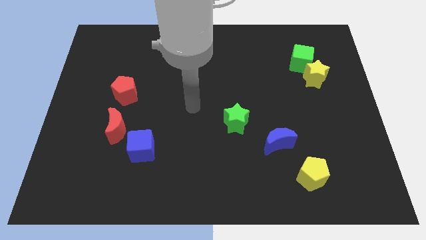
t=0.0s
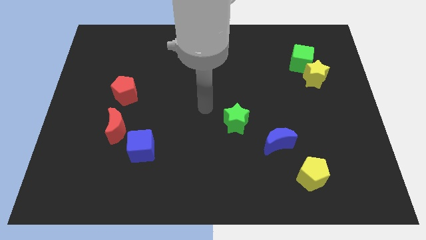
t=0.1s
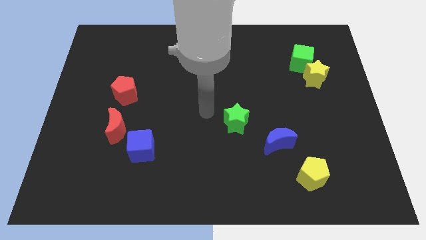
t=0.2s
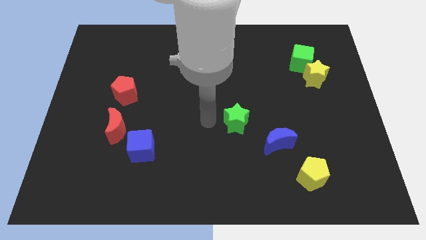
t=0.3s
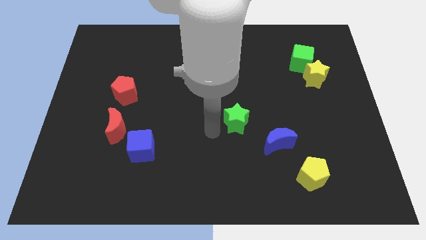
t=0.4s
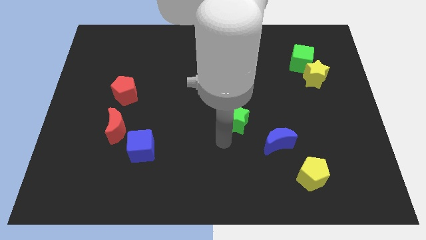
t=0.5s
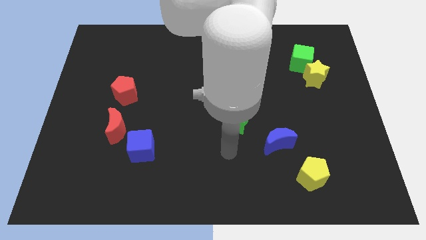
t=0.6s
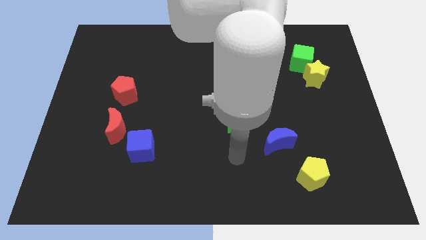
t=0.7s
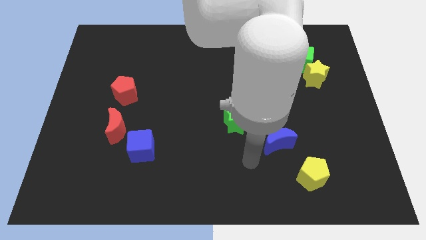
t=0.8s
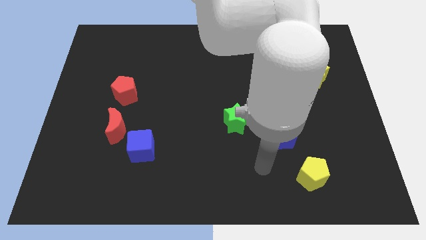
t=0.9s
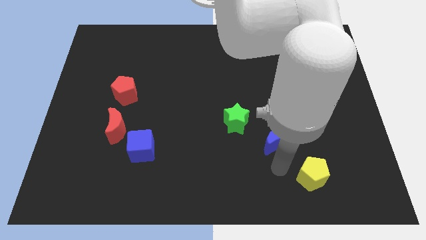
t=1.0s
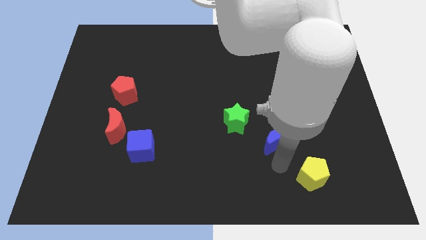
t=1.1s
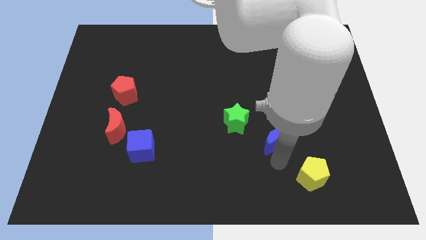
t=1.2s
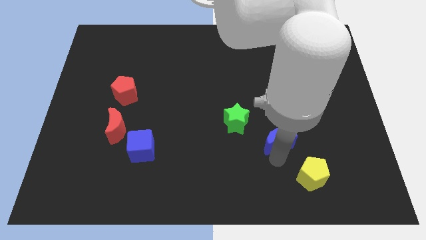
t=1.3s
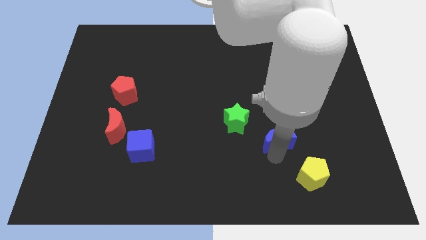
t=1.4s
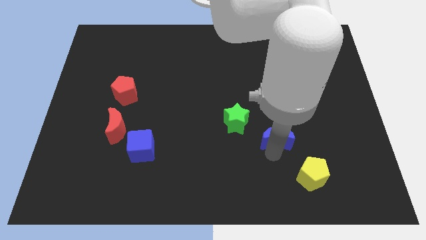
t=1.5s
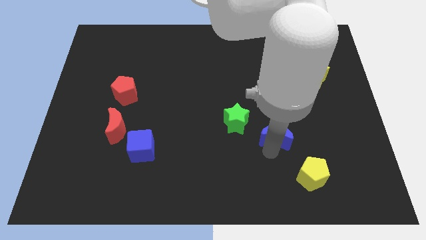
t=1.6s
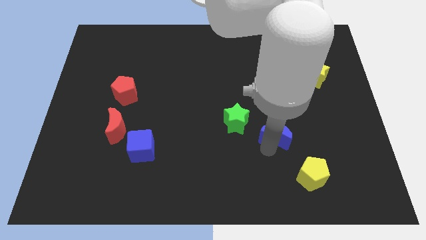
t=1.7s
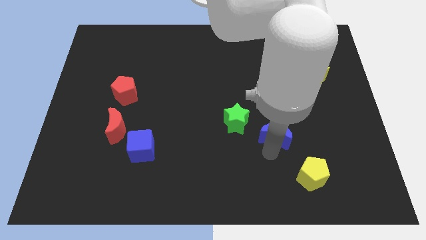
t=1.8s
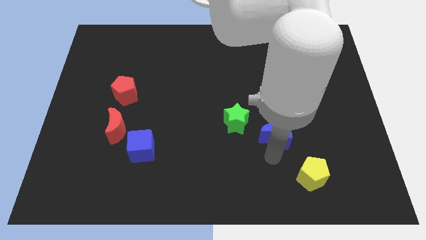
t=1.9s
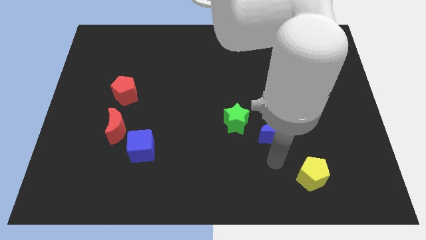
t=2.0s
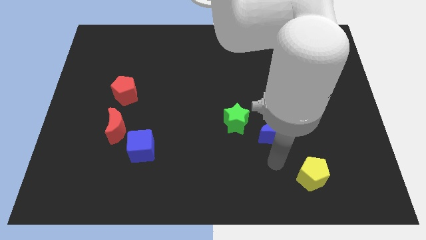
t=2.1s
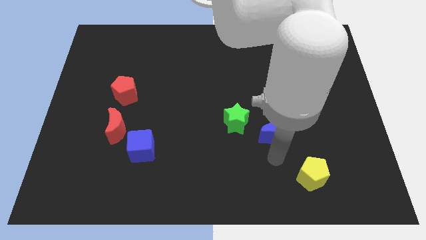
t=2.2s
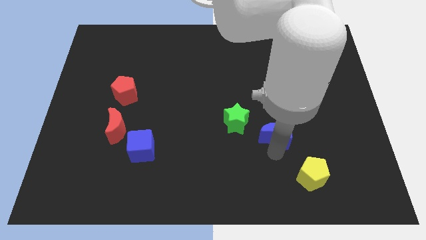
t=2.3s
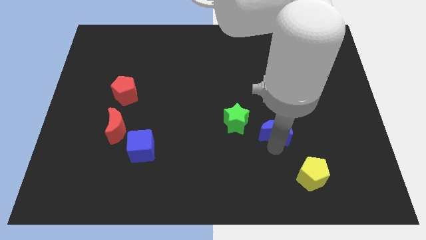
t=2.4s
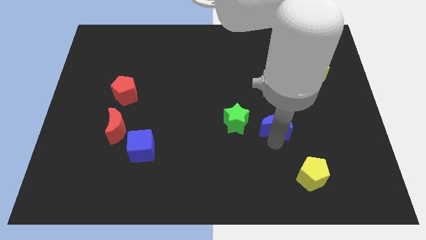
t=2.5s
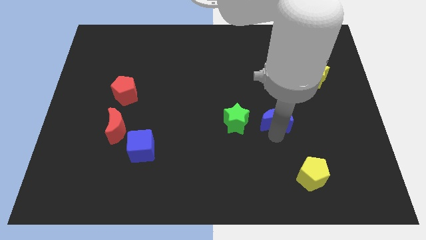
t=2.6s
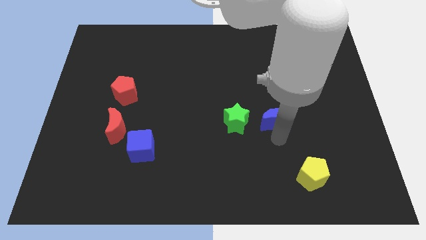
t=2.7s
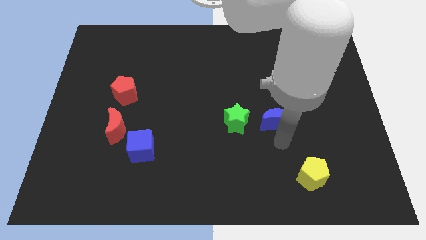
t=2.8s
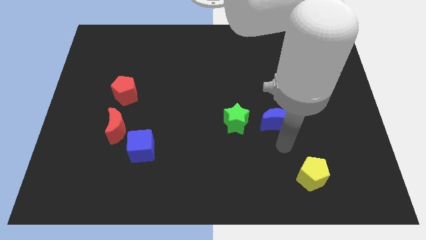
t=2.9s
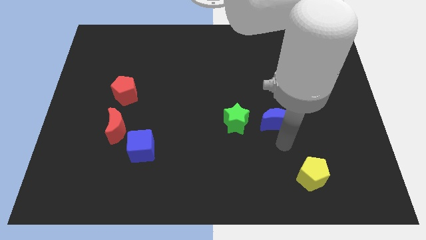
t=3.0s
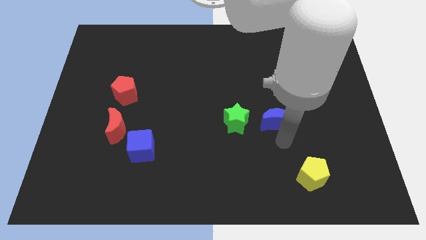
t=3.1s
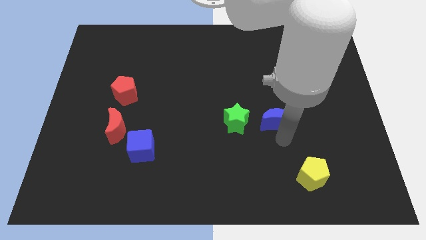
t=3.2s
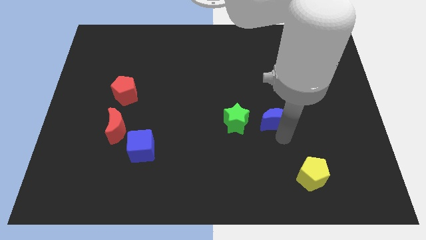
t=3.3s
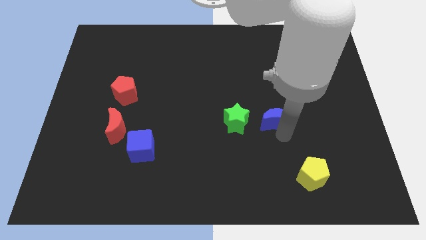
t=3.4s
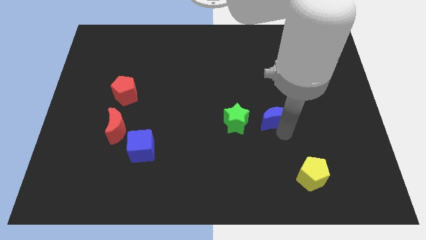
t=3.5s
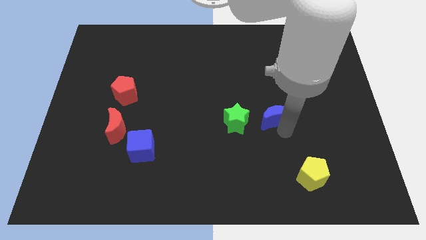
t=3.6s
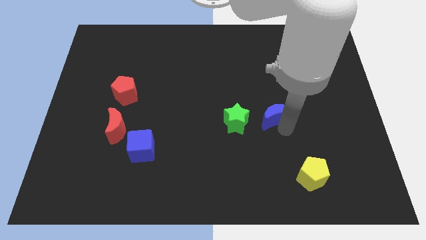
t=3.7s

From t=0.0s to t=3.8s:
slightly move the blue moon up

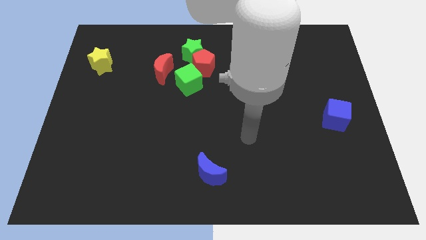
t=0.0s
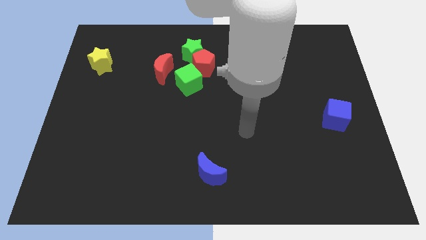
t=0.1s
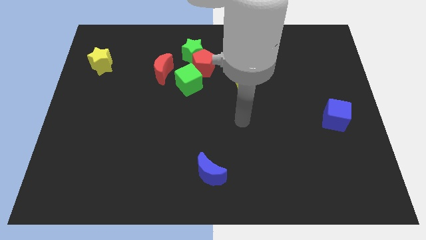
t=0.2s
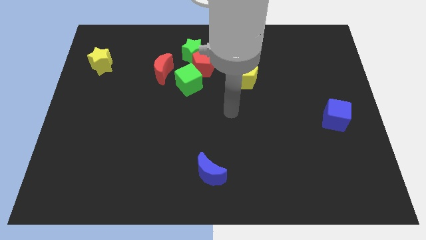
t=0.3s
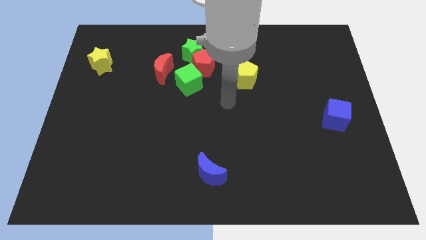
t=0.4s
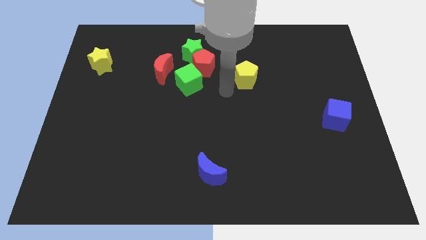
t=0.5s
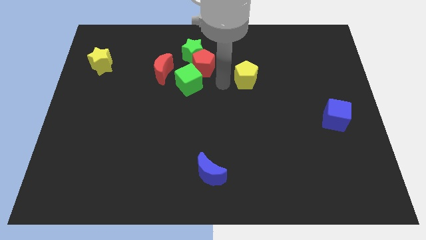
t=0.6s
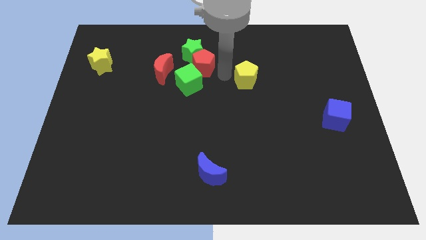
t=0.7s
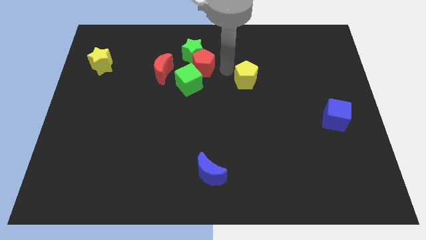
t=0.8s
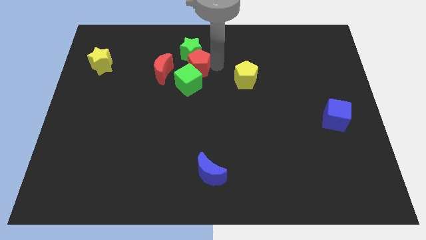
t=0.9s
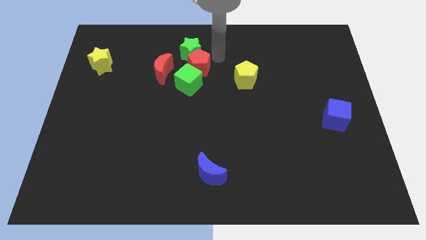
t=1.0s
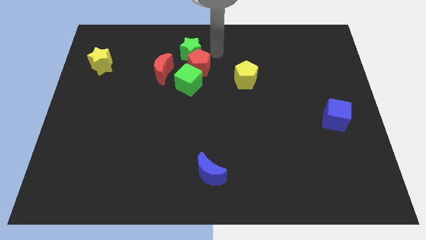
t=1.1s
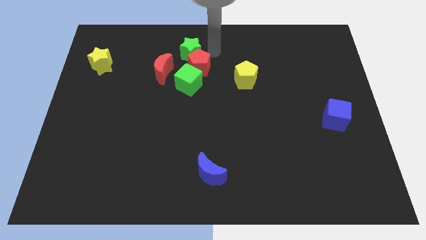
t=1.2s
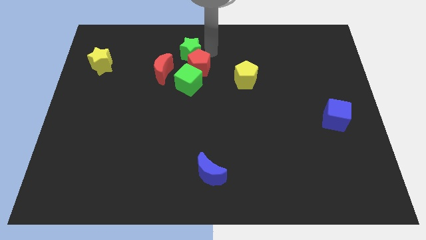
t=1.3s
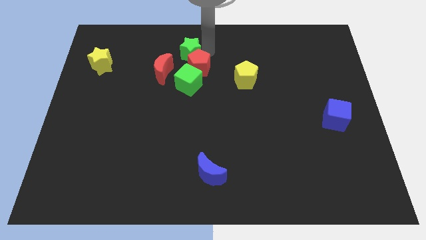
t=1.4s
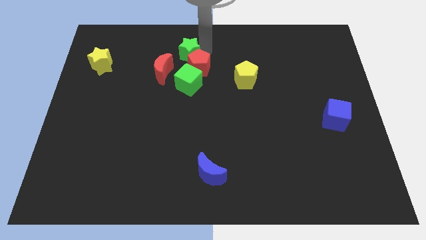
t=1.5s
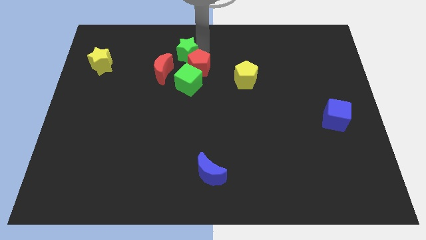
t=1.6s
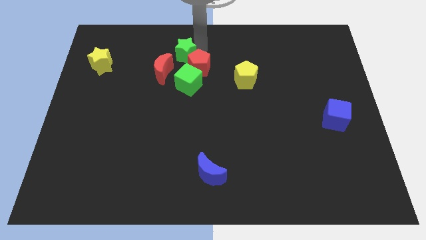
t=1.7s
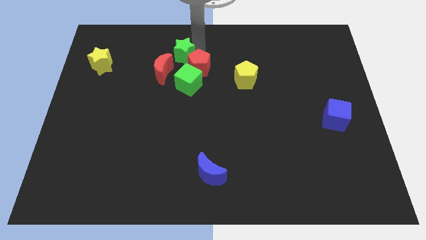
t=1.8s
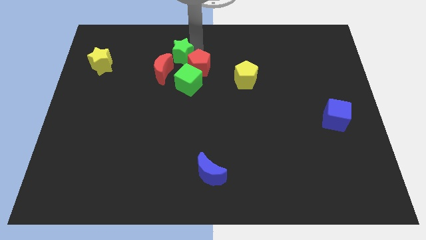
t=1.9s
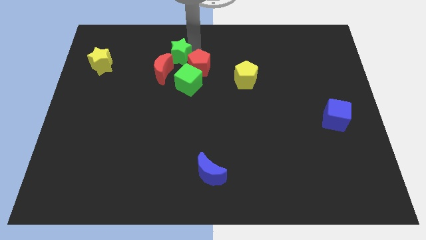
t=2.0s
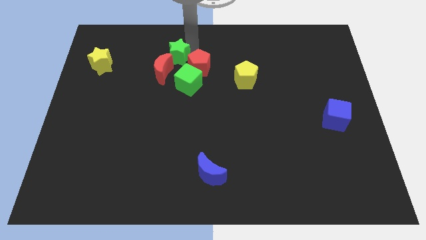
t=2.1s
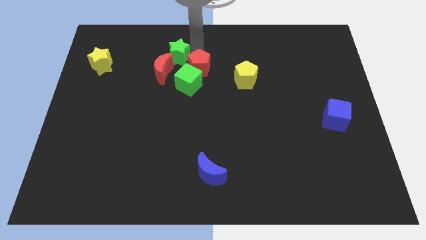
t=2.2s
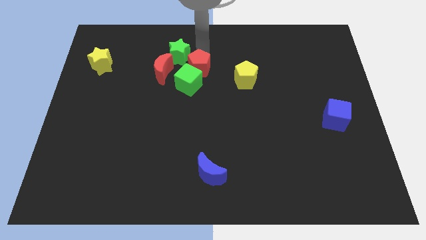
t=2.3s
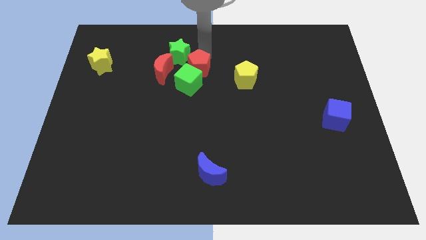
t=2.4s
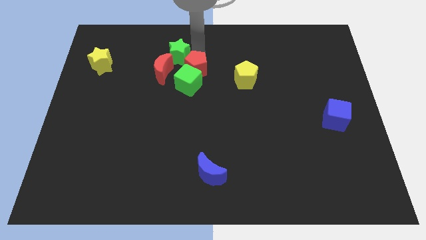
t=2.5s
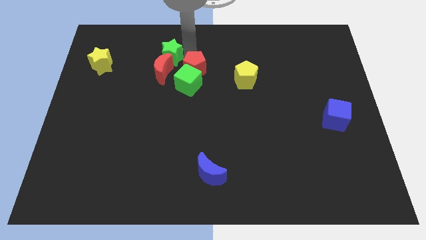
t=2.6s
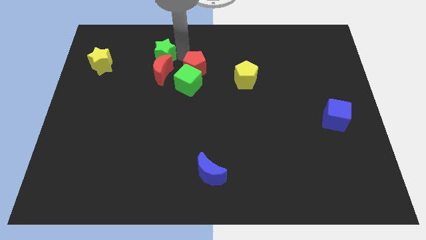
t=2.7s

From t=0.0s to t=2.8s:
slide the green star slightly left

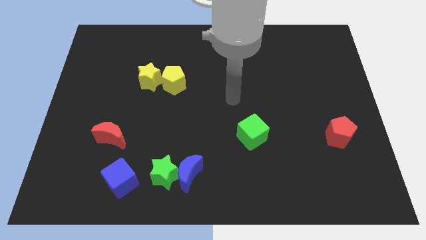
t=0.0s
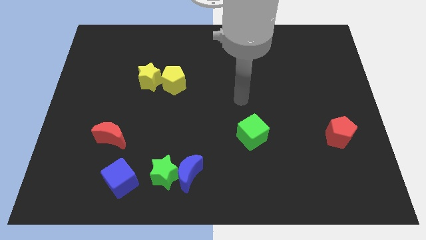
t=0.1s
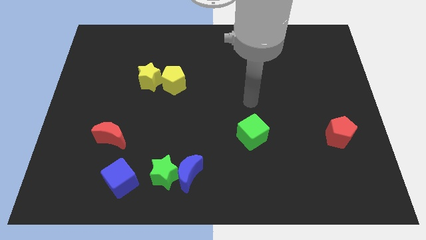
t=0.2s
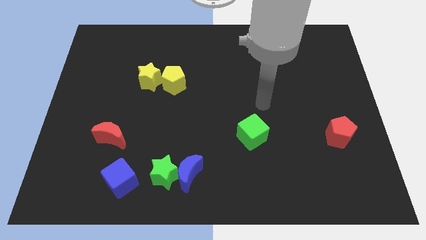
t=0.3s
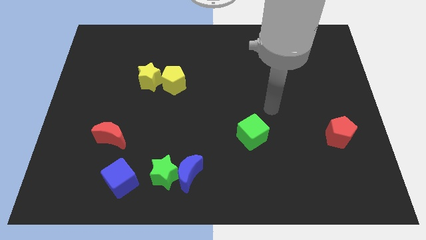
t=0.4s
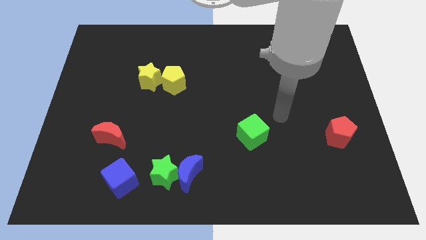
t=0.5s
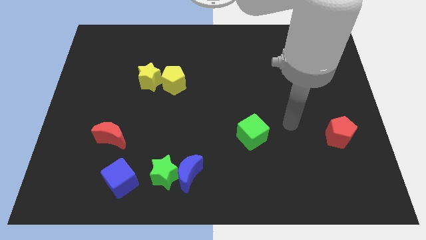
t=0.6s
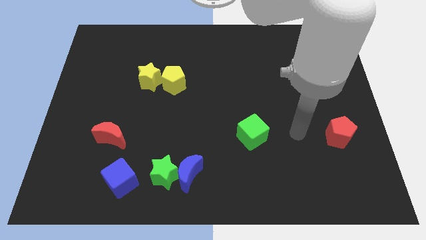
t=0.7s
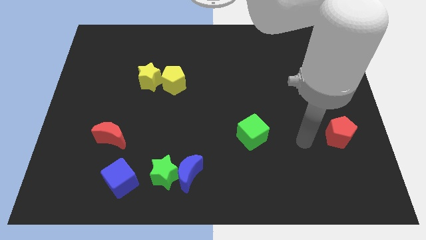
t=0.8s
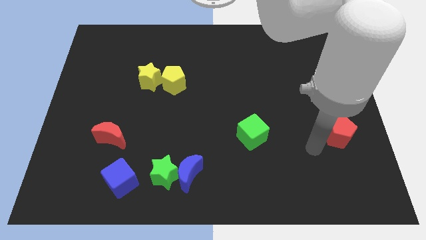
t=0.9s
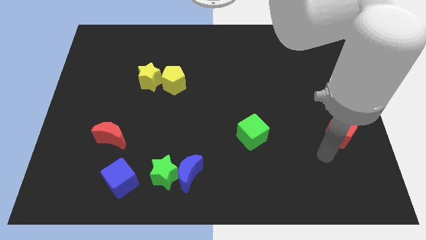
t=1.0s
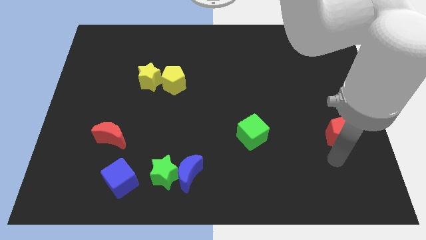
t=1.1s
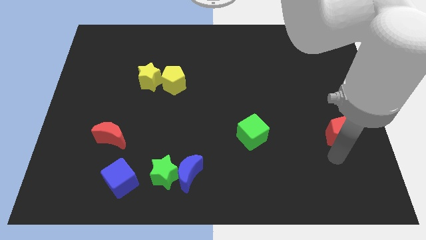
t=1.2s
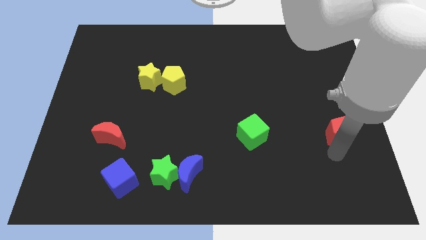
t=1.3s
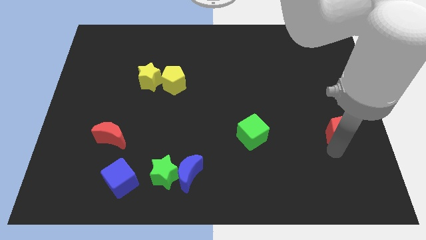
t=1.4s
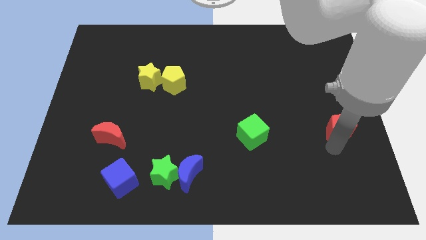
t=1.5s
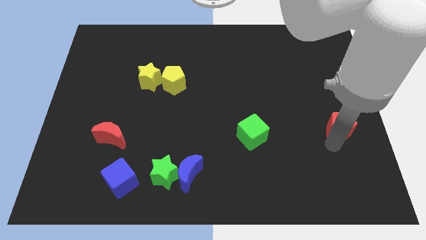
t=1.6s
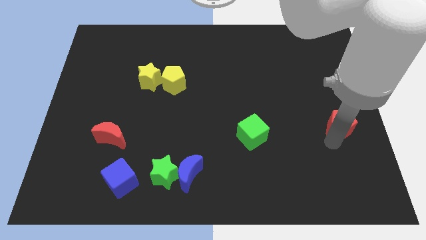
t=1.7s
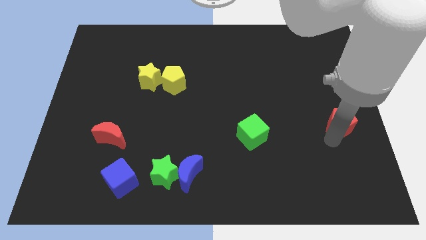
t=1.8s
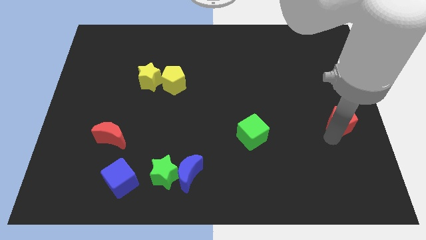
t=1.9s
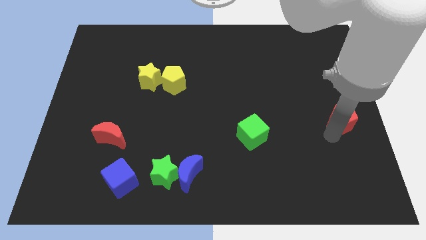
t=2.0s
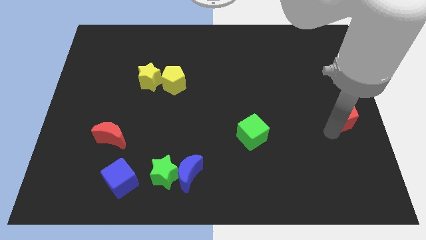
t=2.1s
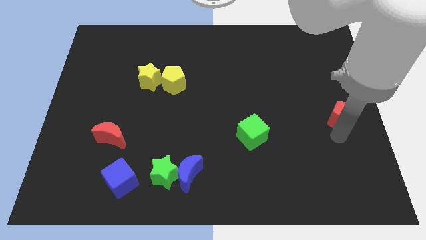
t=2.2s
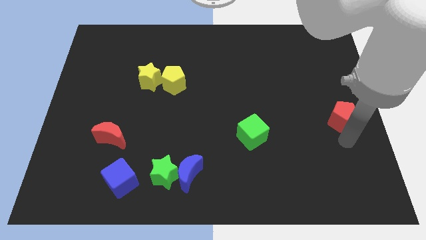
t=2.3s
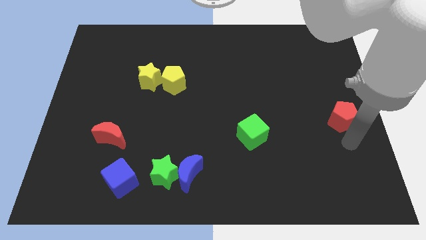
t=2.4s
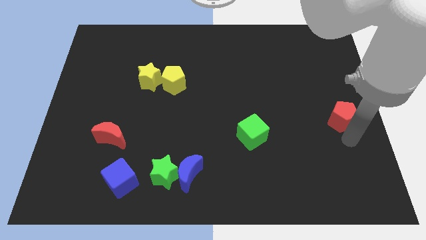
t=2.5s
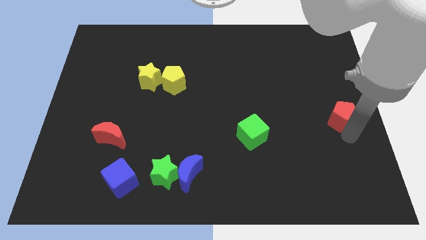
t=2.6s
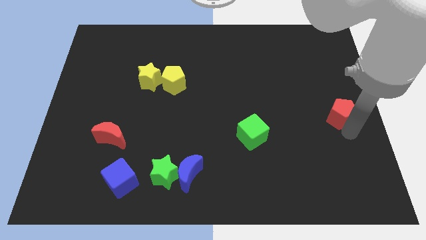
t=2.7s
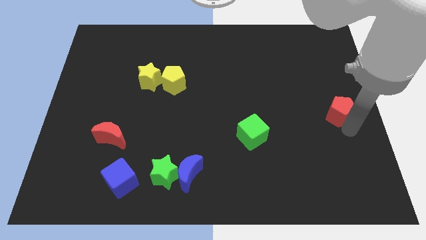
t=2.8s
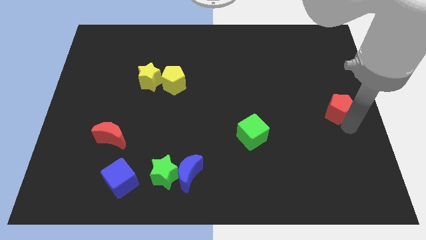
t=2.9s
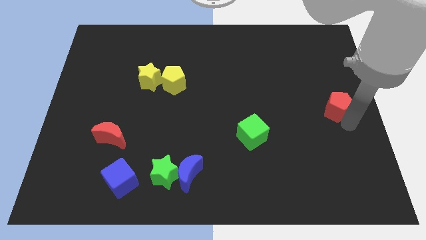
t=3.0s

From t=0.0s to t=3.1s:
push the red pentagon upwards somewhat
